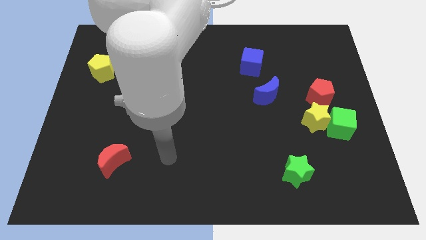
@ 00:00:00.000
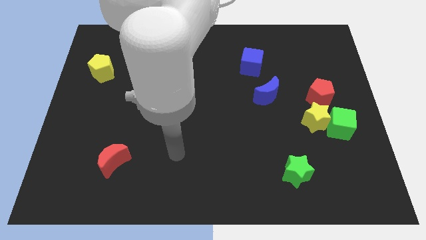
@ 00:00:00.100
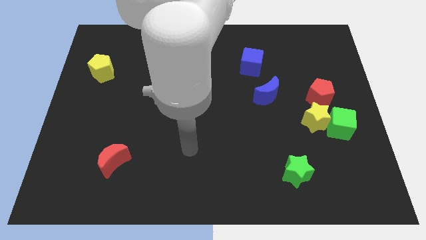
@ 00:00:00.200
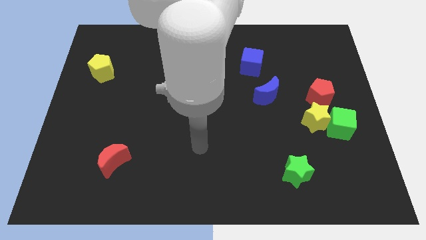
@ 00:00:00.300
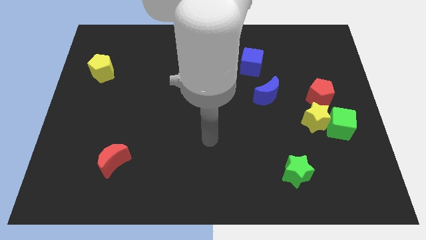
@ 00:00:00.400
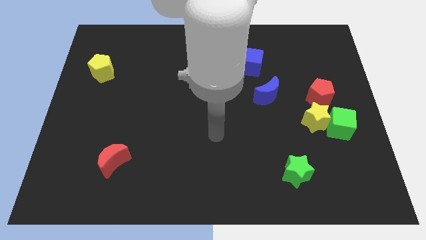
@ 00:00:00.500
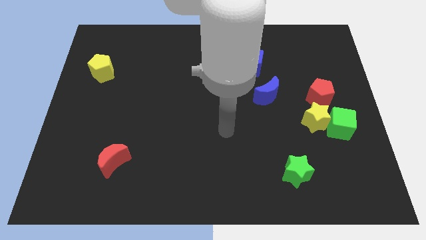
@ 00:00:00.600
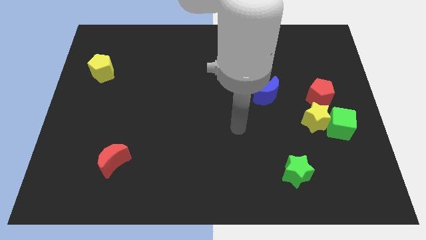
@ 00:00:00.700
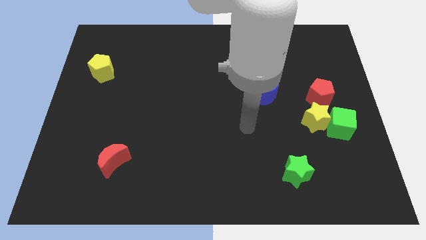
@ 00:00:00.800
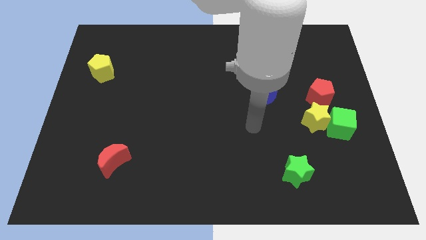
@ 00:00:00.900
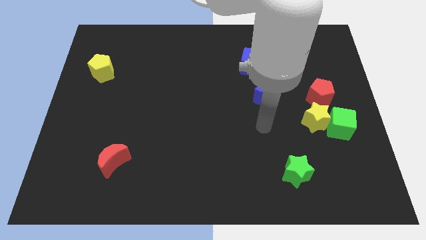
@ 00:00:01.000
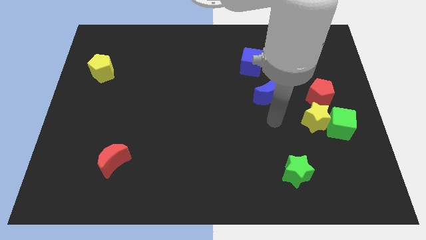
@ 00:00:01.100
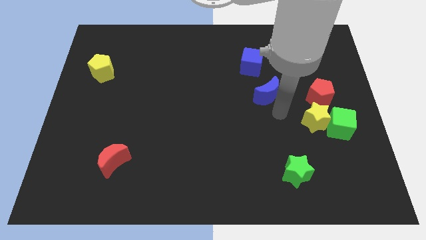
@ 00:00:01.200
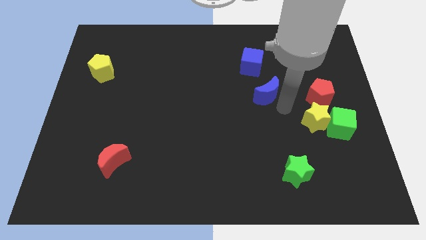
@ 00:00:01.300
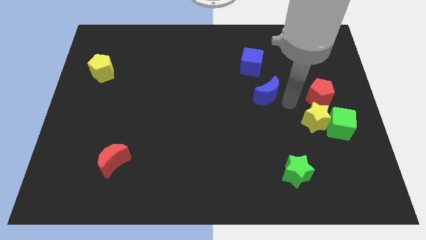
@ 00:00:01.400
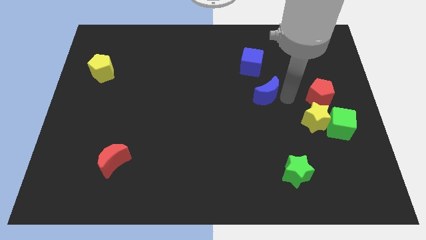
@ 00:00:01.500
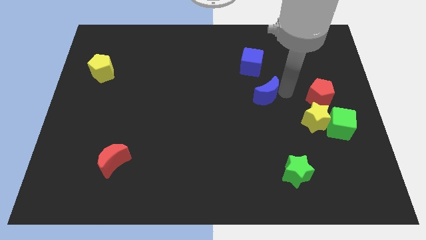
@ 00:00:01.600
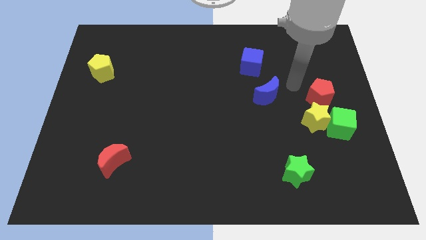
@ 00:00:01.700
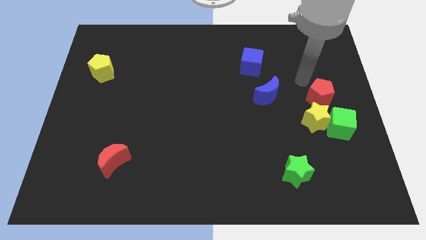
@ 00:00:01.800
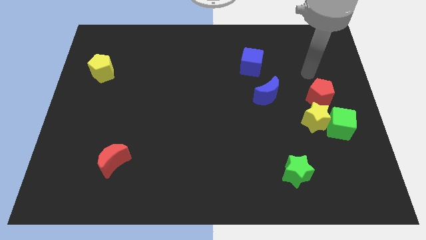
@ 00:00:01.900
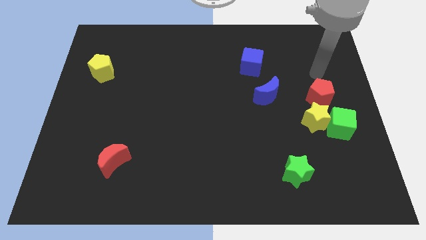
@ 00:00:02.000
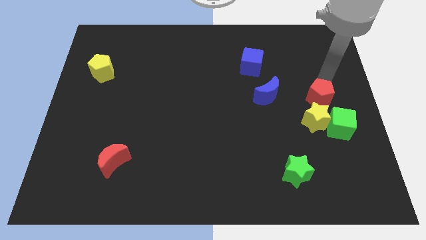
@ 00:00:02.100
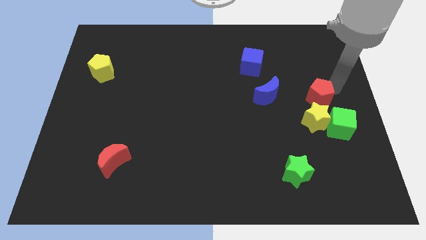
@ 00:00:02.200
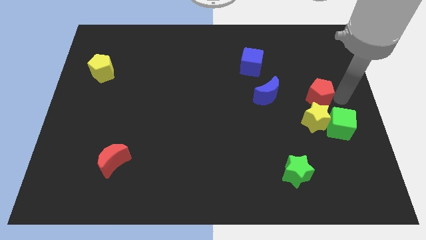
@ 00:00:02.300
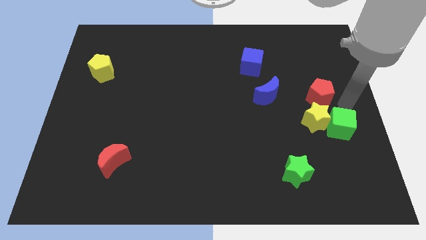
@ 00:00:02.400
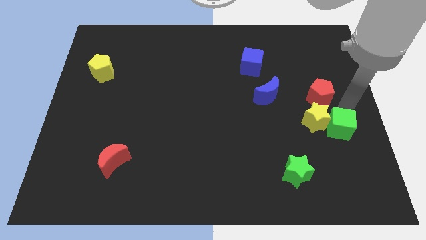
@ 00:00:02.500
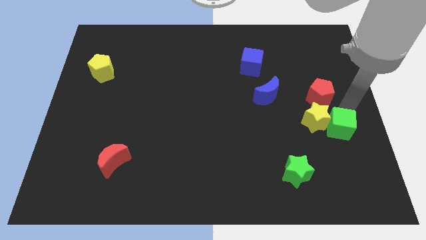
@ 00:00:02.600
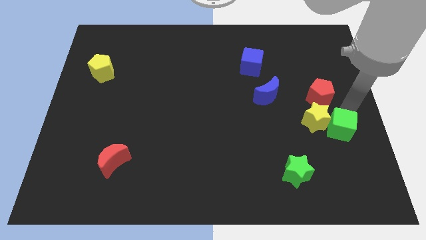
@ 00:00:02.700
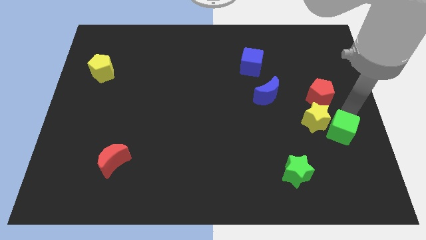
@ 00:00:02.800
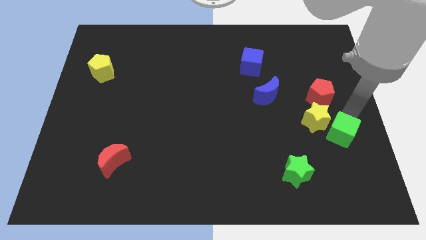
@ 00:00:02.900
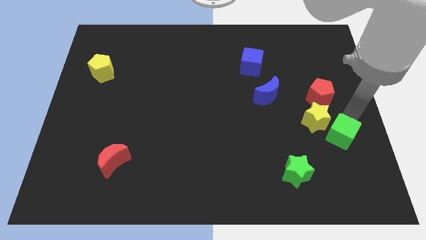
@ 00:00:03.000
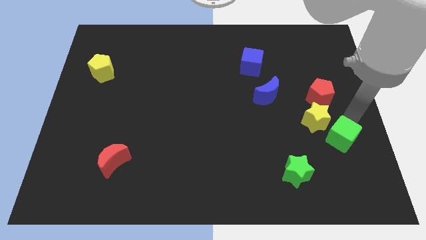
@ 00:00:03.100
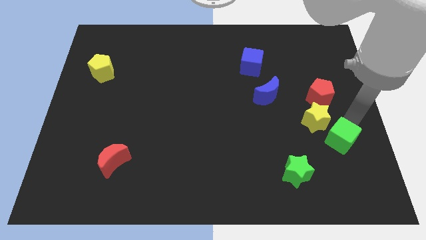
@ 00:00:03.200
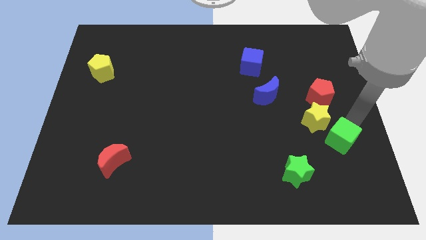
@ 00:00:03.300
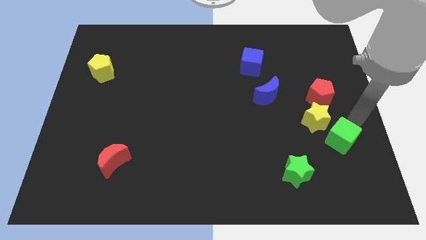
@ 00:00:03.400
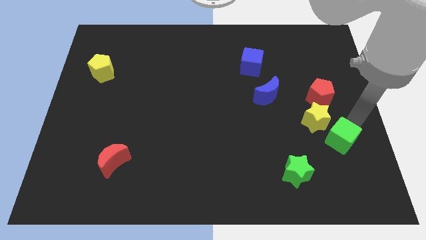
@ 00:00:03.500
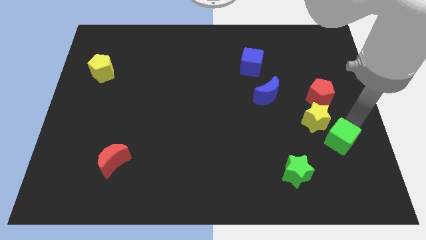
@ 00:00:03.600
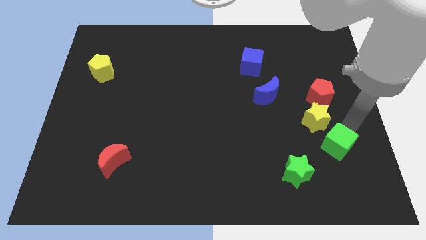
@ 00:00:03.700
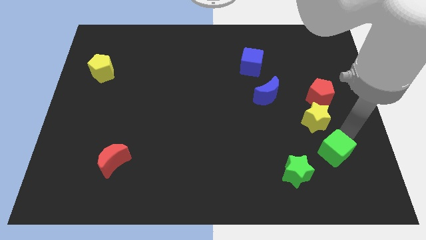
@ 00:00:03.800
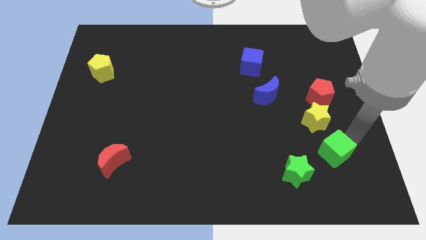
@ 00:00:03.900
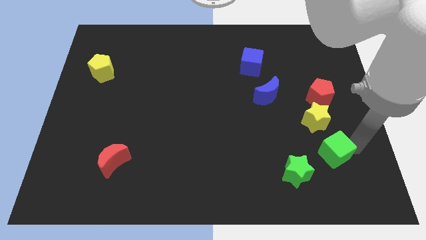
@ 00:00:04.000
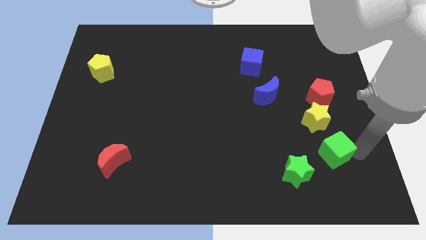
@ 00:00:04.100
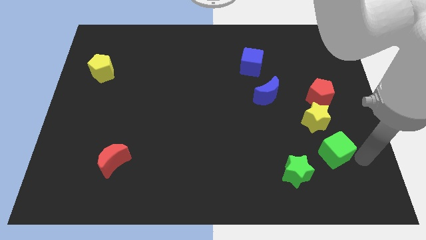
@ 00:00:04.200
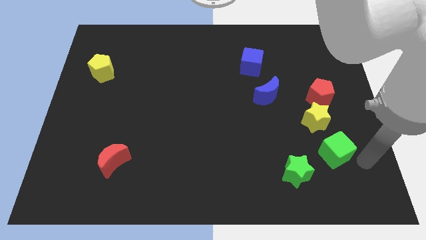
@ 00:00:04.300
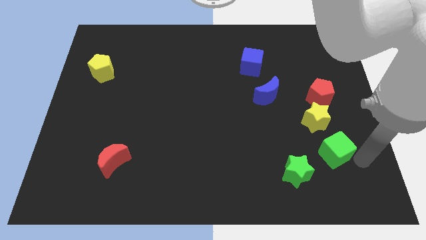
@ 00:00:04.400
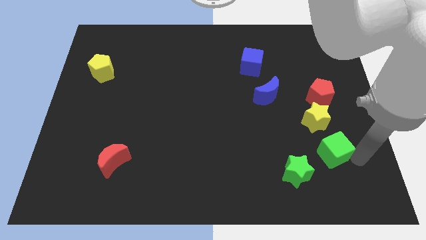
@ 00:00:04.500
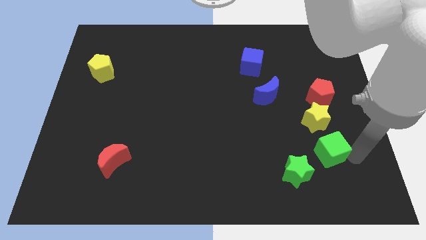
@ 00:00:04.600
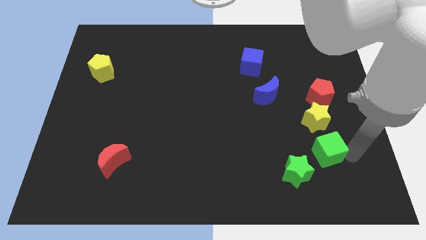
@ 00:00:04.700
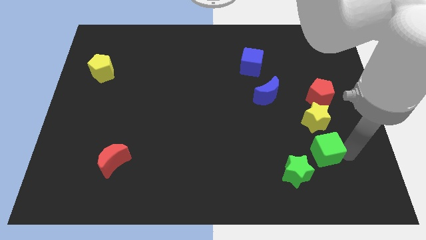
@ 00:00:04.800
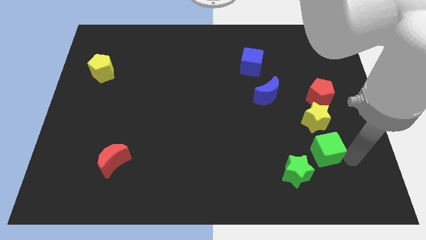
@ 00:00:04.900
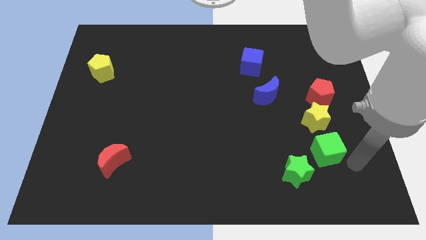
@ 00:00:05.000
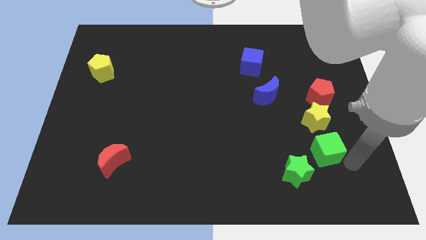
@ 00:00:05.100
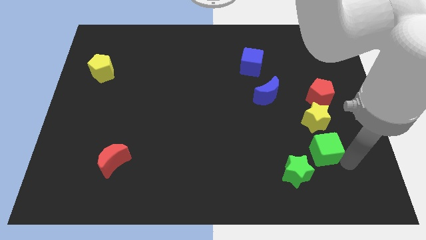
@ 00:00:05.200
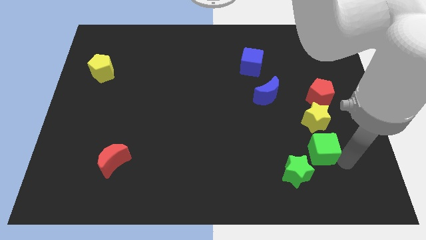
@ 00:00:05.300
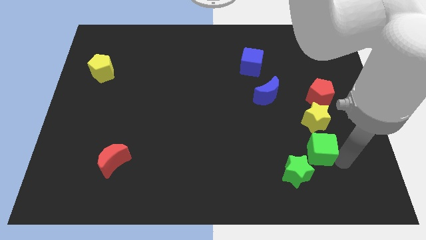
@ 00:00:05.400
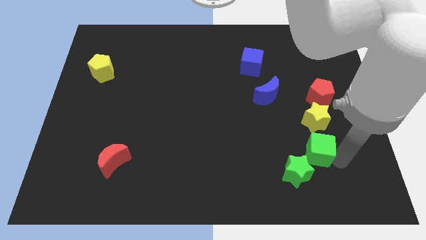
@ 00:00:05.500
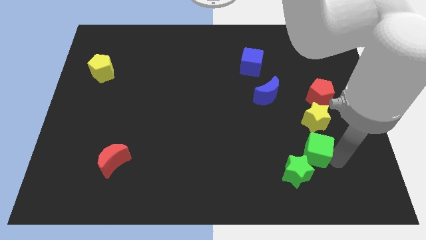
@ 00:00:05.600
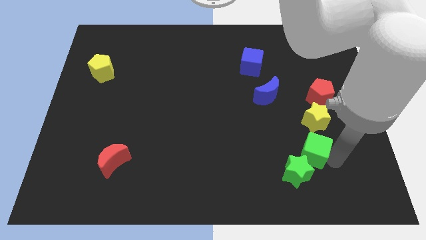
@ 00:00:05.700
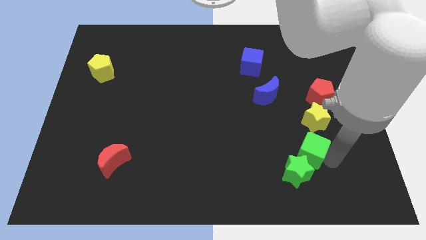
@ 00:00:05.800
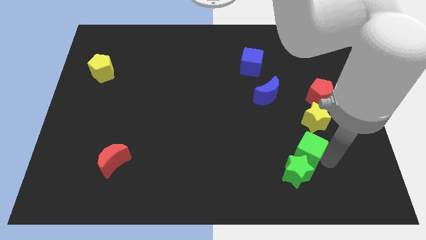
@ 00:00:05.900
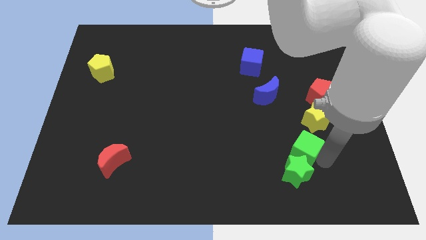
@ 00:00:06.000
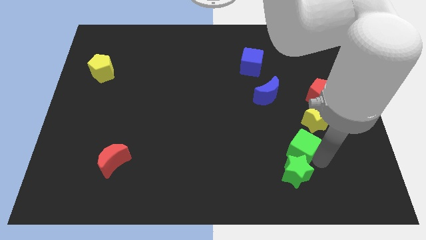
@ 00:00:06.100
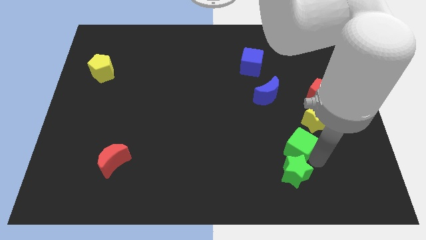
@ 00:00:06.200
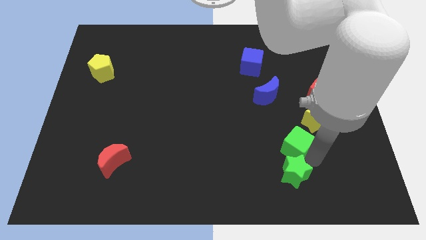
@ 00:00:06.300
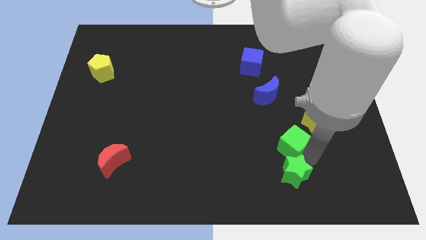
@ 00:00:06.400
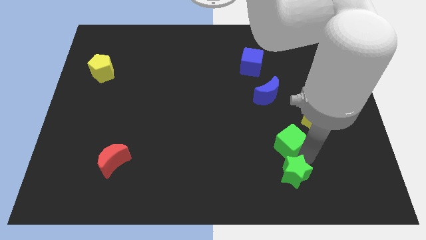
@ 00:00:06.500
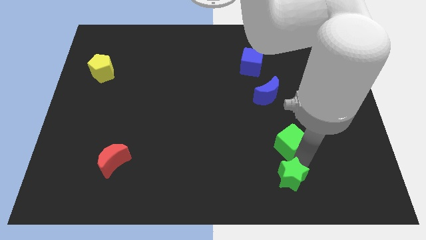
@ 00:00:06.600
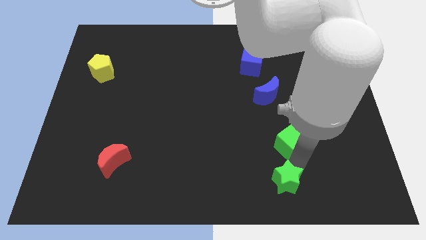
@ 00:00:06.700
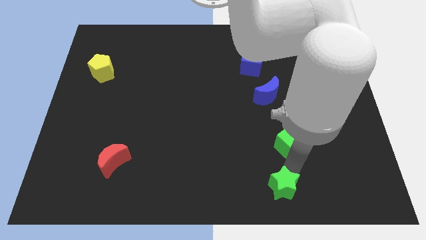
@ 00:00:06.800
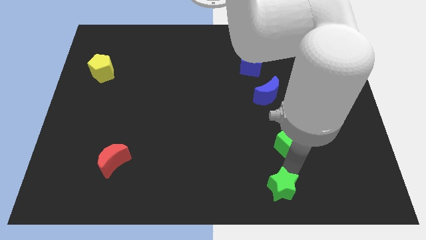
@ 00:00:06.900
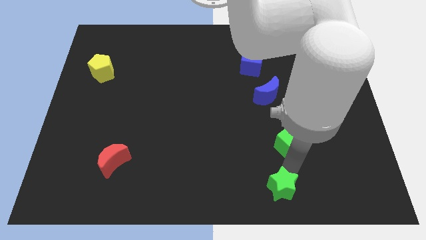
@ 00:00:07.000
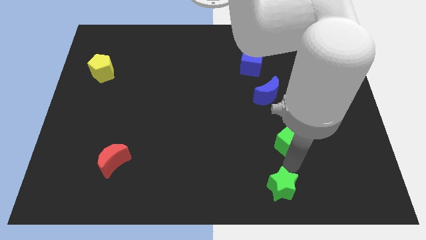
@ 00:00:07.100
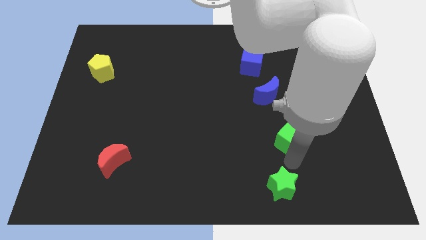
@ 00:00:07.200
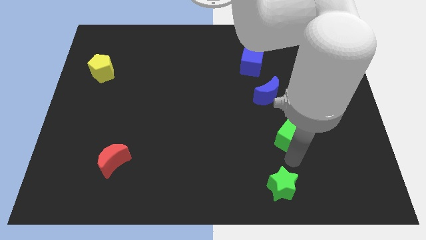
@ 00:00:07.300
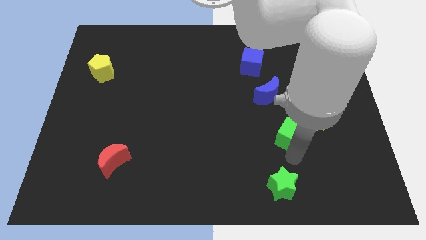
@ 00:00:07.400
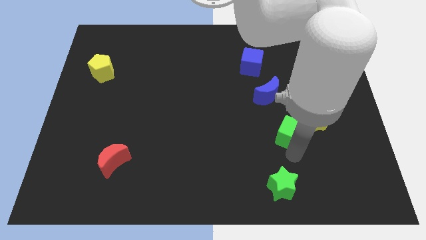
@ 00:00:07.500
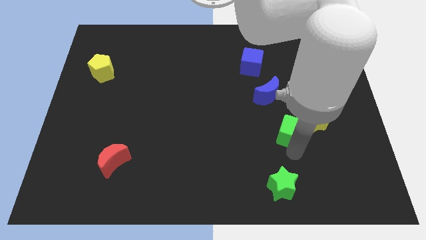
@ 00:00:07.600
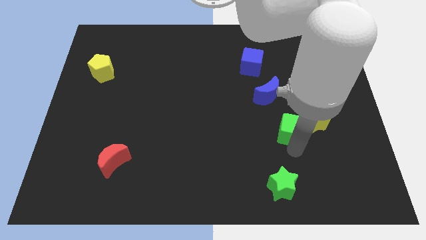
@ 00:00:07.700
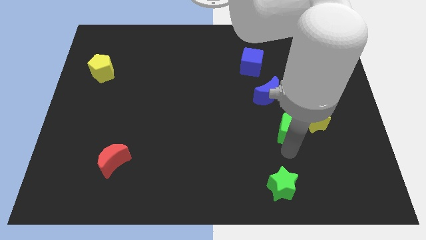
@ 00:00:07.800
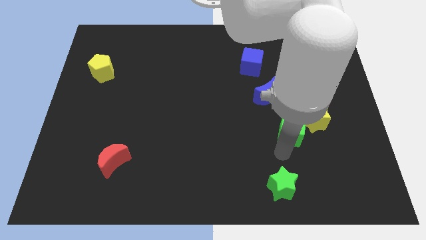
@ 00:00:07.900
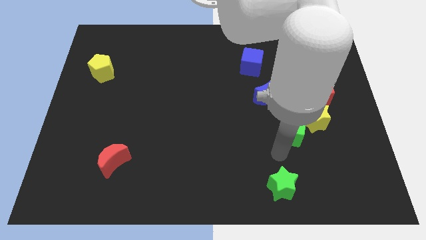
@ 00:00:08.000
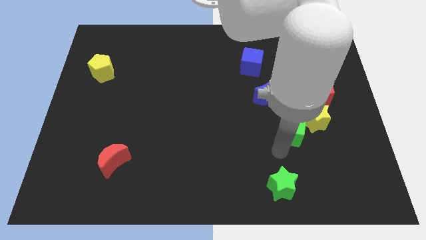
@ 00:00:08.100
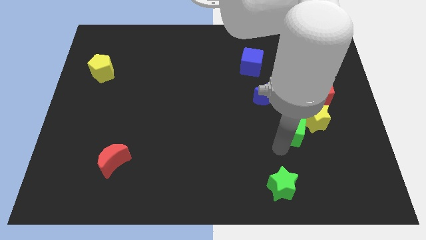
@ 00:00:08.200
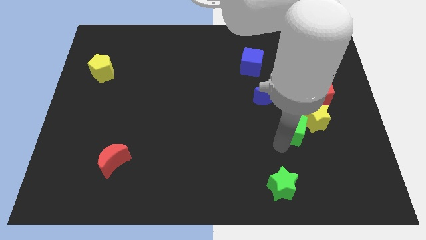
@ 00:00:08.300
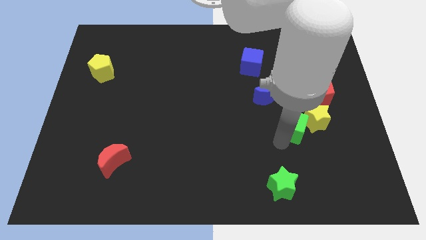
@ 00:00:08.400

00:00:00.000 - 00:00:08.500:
slide the green cube to the bottom left of the red pentagon
